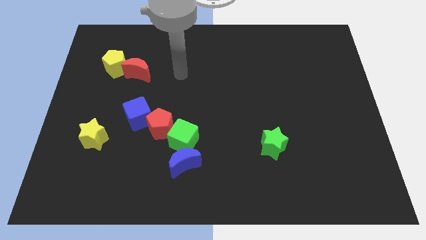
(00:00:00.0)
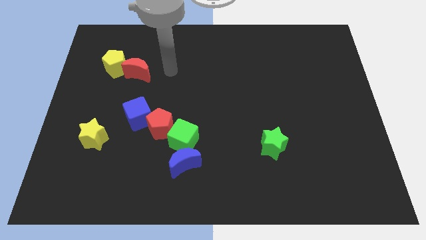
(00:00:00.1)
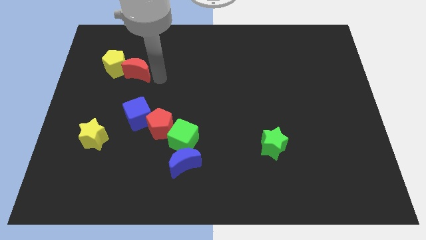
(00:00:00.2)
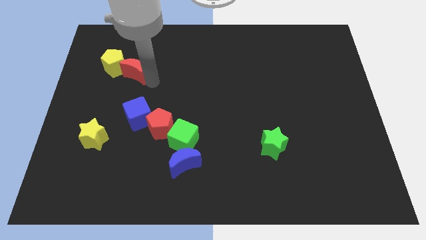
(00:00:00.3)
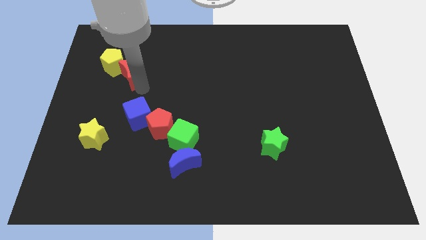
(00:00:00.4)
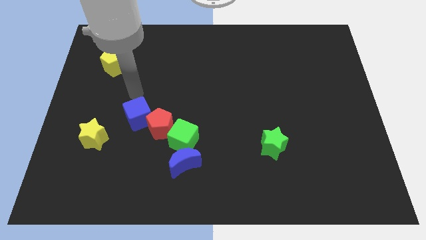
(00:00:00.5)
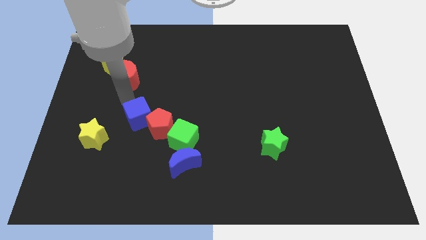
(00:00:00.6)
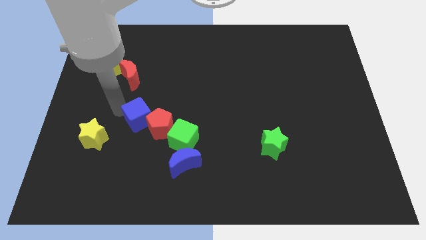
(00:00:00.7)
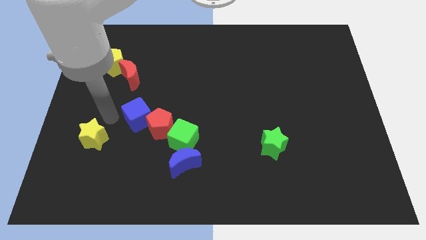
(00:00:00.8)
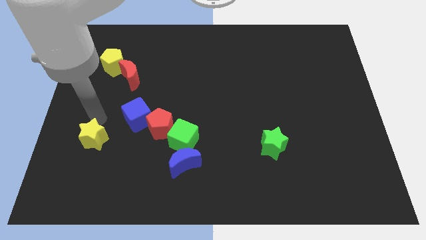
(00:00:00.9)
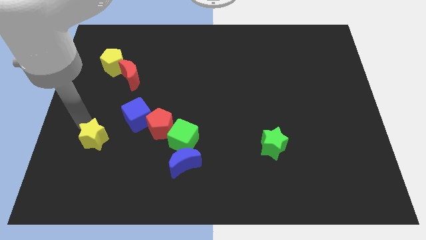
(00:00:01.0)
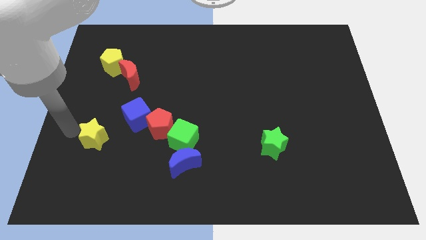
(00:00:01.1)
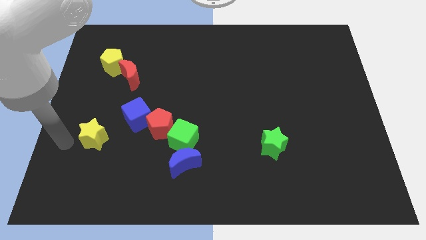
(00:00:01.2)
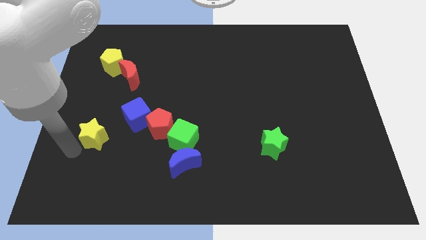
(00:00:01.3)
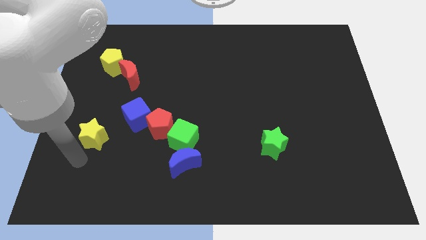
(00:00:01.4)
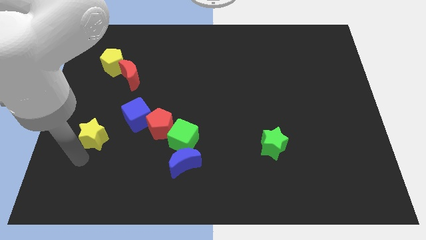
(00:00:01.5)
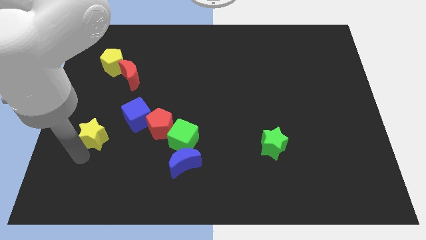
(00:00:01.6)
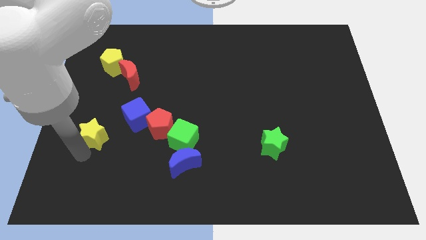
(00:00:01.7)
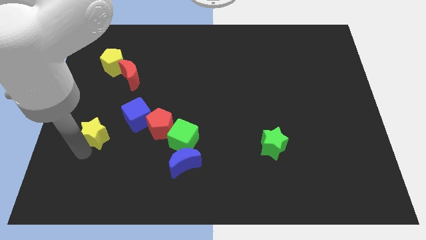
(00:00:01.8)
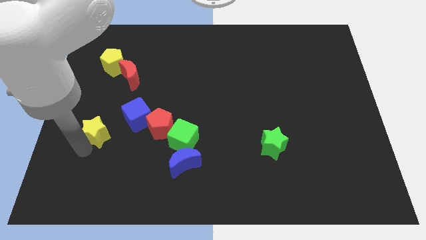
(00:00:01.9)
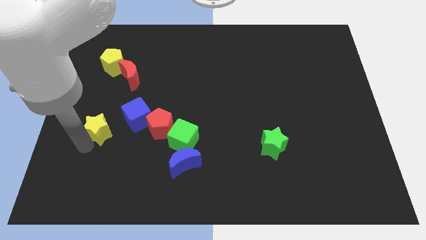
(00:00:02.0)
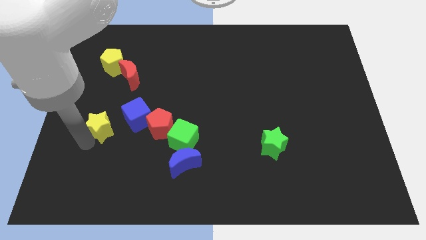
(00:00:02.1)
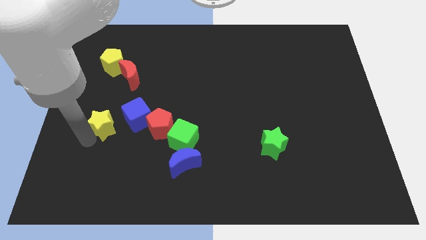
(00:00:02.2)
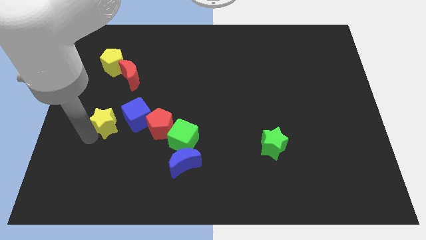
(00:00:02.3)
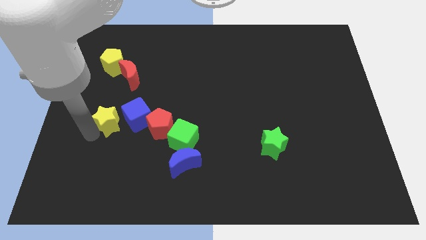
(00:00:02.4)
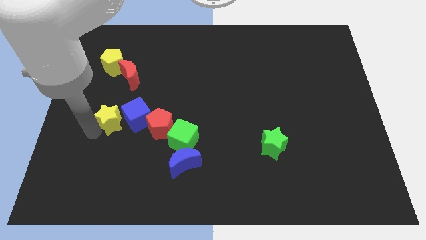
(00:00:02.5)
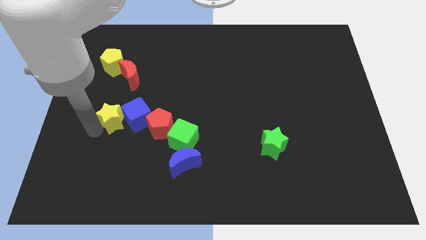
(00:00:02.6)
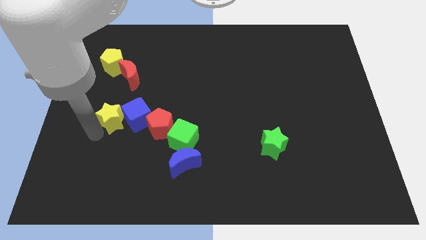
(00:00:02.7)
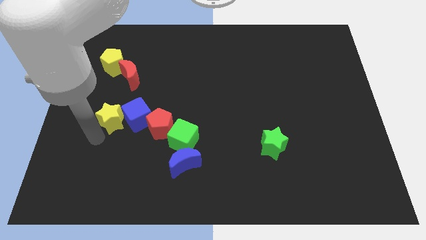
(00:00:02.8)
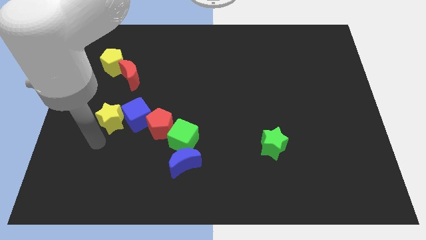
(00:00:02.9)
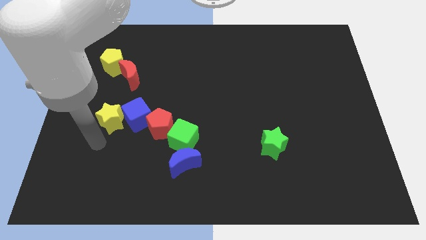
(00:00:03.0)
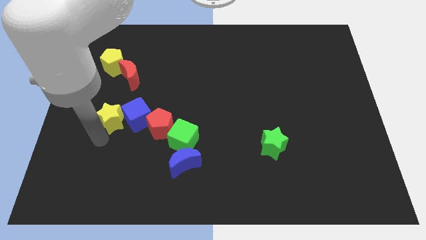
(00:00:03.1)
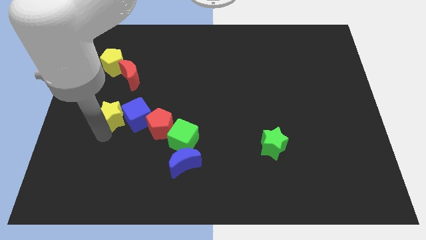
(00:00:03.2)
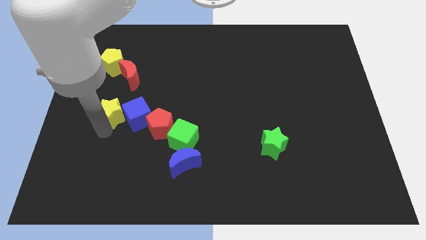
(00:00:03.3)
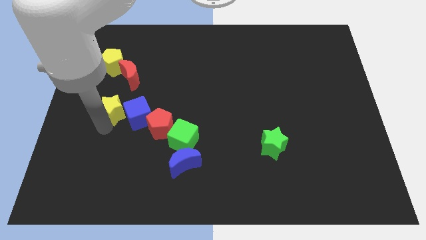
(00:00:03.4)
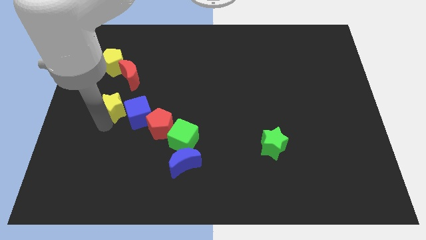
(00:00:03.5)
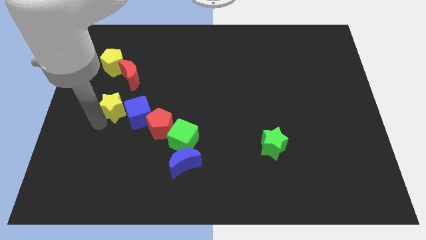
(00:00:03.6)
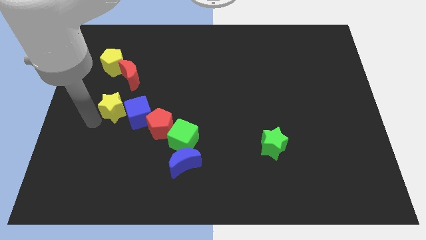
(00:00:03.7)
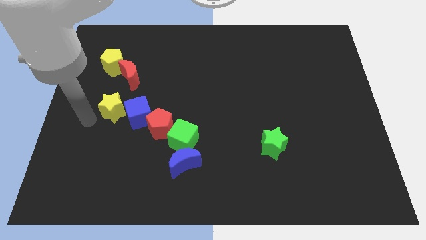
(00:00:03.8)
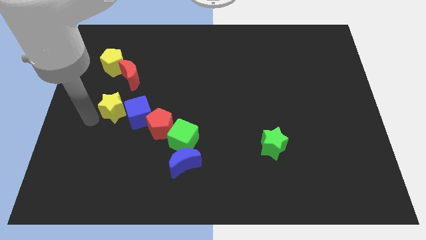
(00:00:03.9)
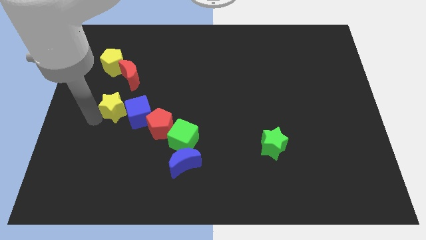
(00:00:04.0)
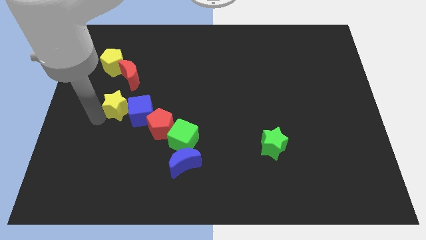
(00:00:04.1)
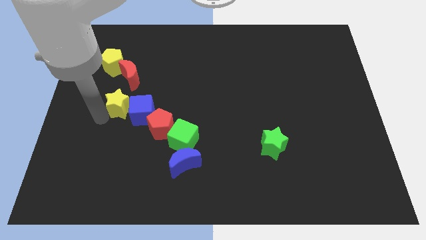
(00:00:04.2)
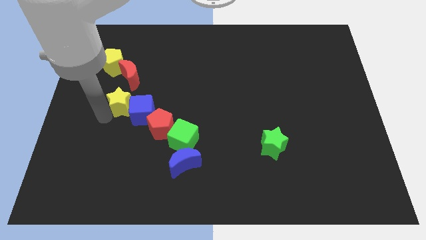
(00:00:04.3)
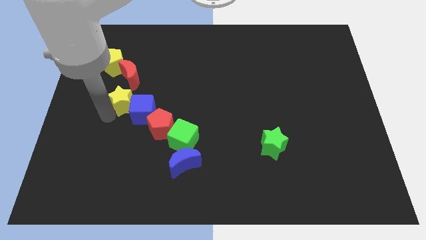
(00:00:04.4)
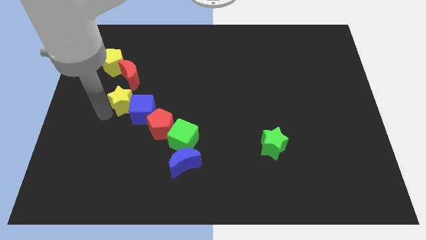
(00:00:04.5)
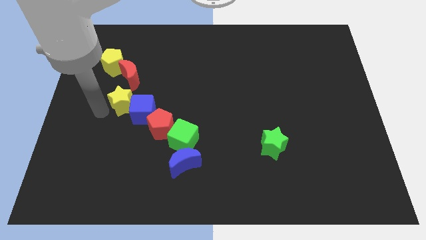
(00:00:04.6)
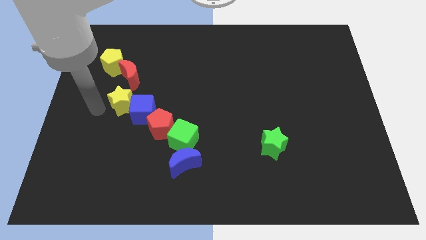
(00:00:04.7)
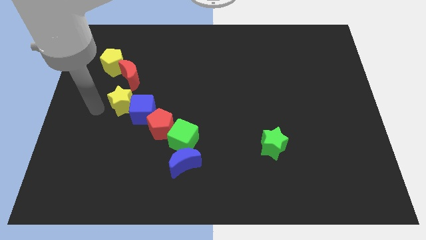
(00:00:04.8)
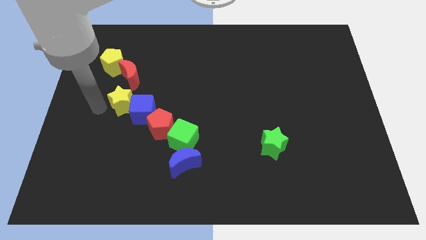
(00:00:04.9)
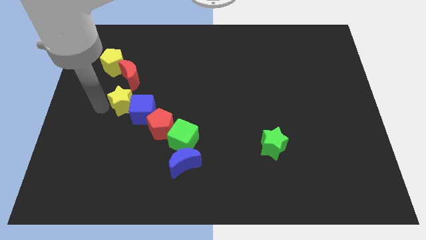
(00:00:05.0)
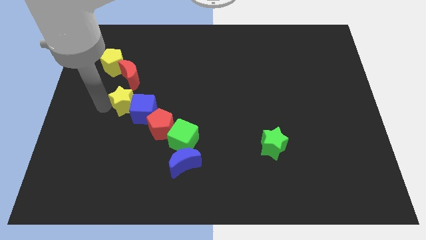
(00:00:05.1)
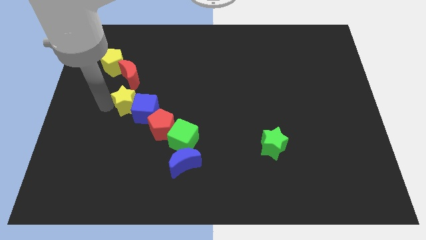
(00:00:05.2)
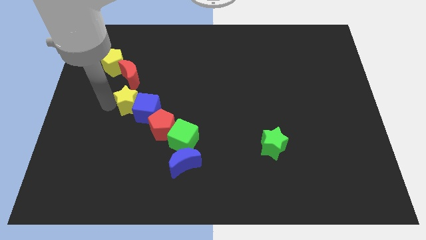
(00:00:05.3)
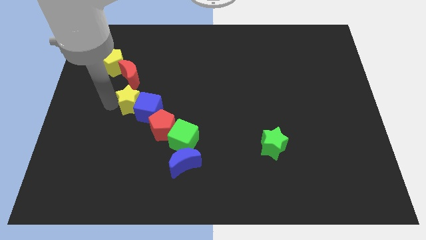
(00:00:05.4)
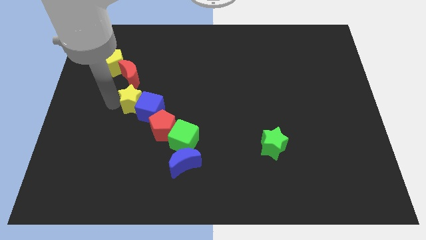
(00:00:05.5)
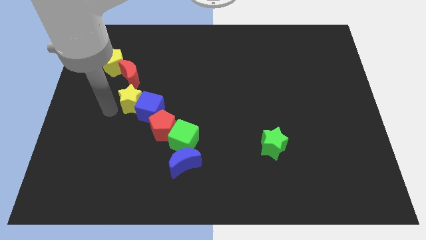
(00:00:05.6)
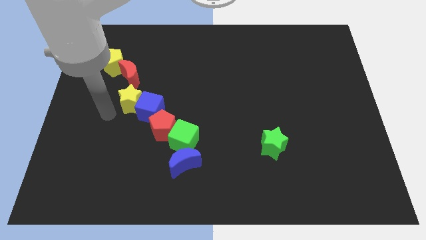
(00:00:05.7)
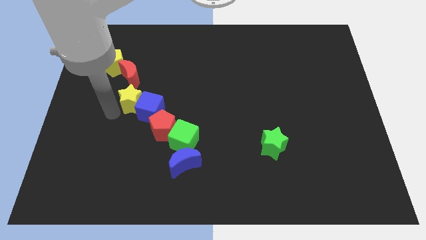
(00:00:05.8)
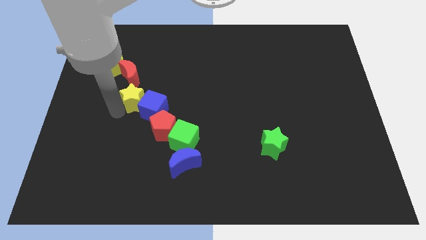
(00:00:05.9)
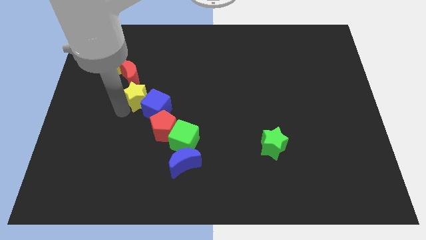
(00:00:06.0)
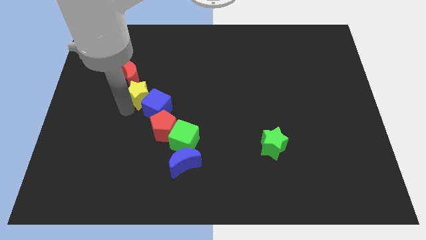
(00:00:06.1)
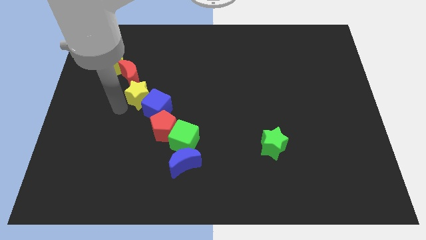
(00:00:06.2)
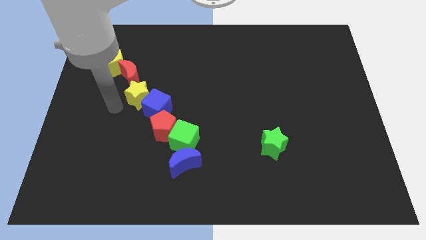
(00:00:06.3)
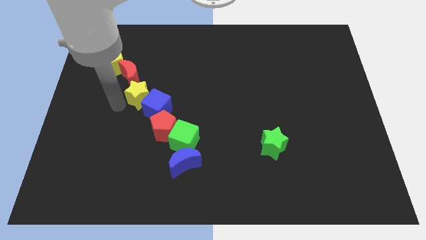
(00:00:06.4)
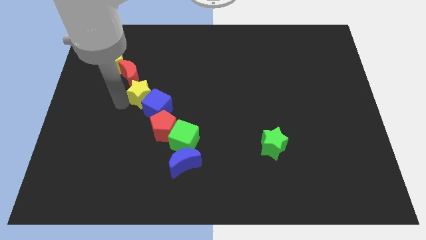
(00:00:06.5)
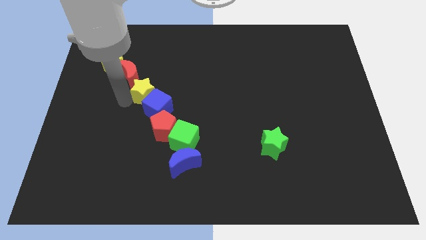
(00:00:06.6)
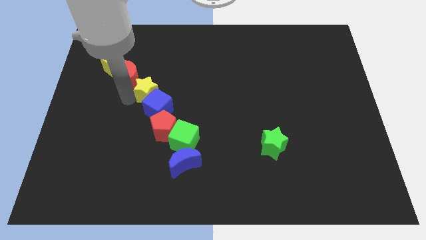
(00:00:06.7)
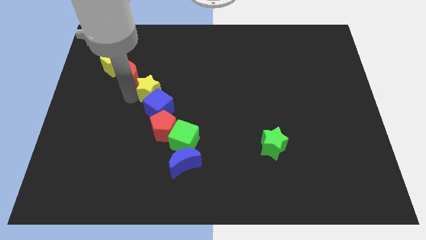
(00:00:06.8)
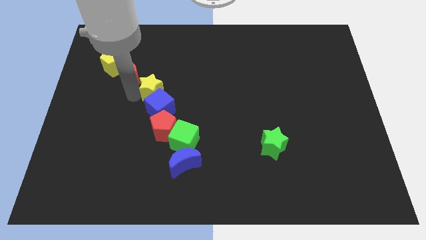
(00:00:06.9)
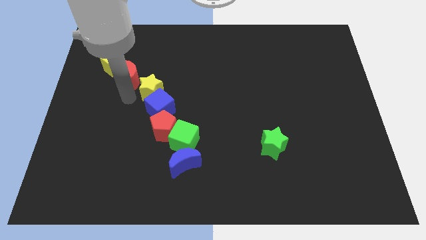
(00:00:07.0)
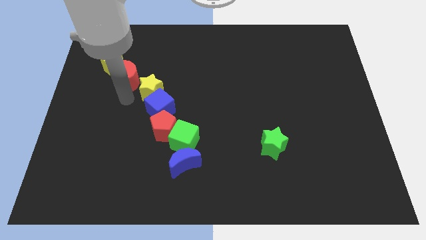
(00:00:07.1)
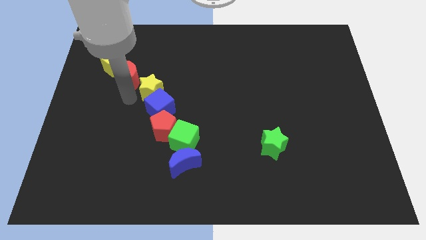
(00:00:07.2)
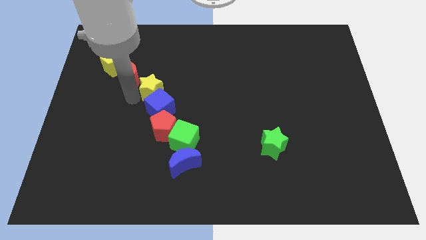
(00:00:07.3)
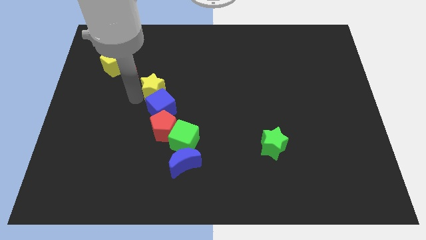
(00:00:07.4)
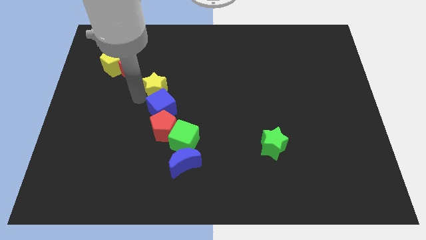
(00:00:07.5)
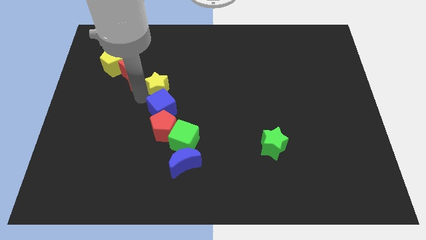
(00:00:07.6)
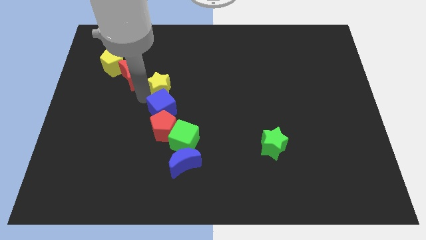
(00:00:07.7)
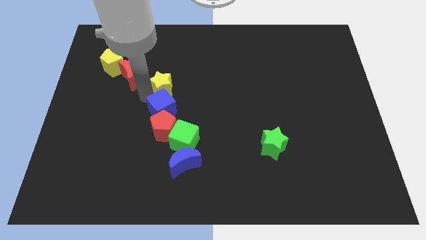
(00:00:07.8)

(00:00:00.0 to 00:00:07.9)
push the yellow star upwards and then right
